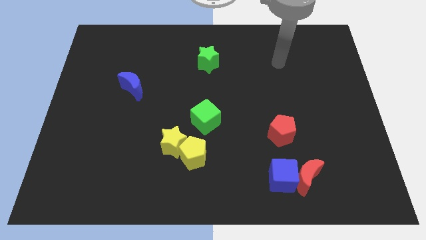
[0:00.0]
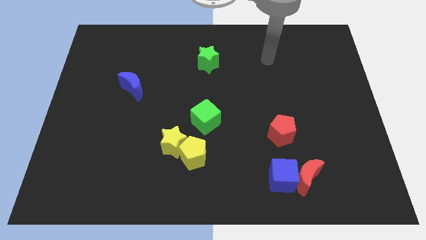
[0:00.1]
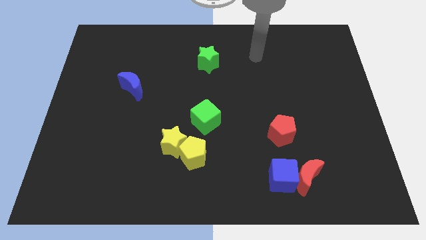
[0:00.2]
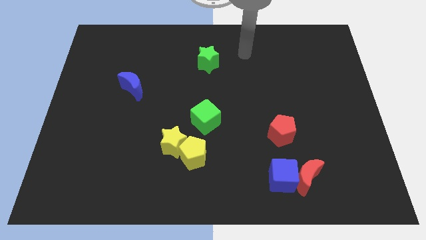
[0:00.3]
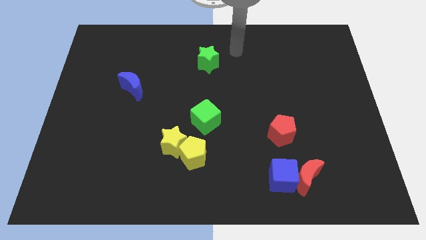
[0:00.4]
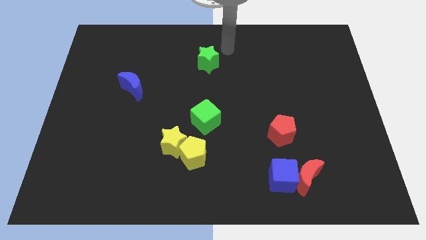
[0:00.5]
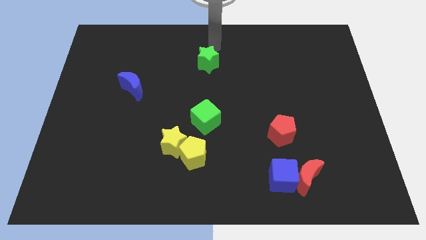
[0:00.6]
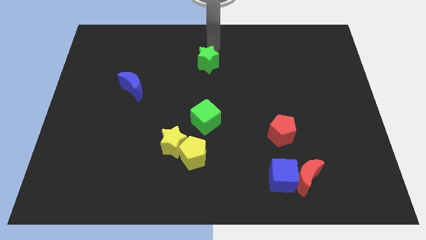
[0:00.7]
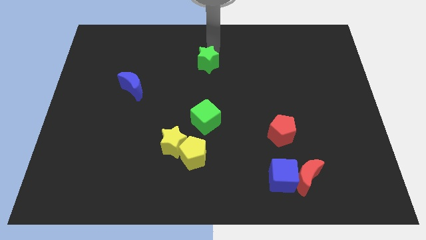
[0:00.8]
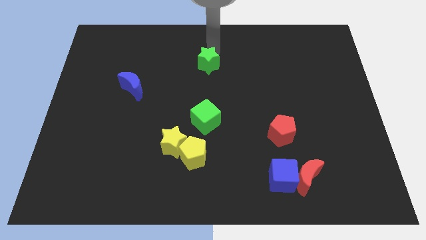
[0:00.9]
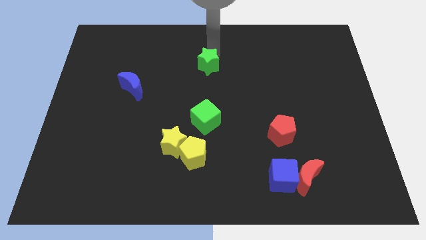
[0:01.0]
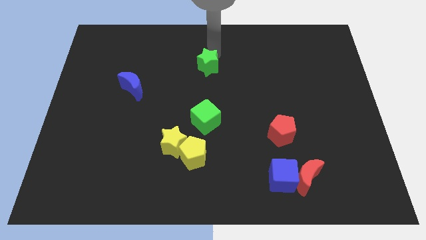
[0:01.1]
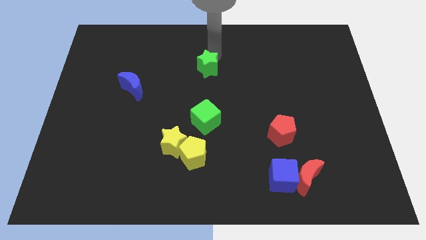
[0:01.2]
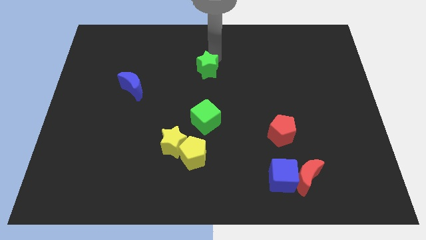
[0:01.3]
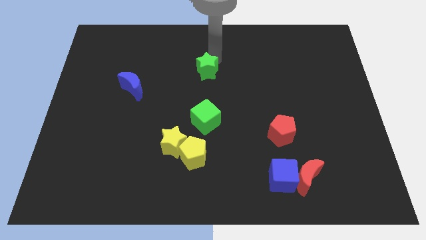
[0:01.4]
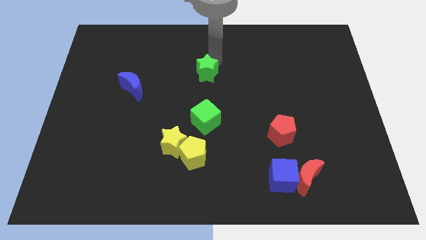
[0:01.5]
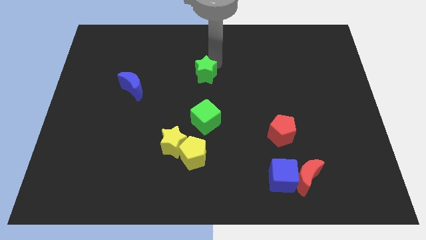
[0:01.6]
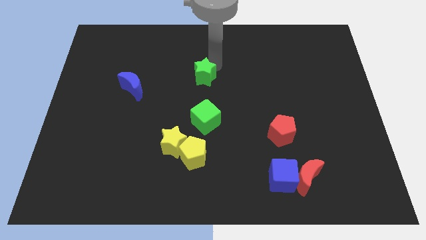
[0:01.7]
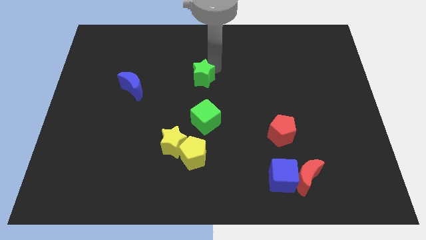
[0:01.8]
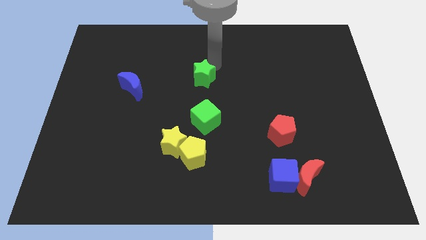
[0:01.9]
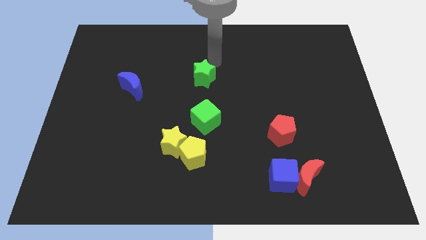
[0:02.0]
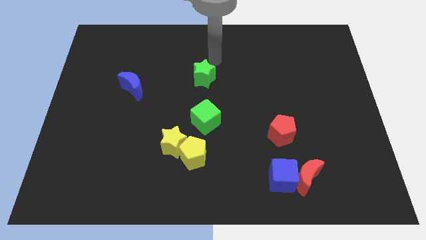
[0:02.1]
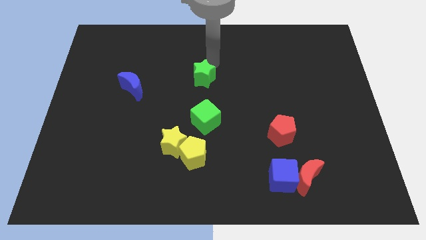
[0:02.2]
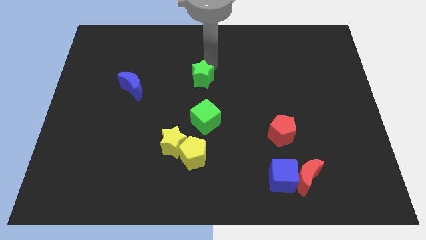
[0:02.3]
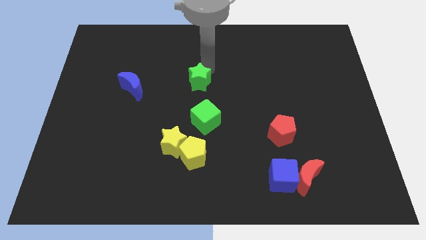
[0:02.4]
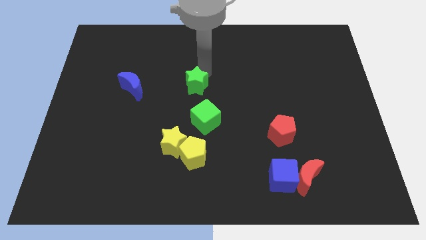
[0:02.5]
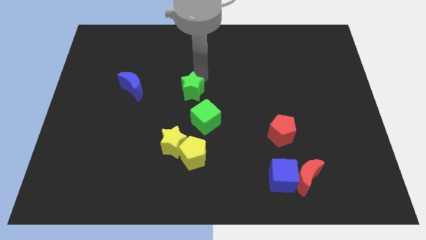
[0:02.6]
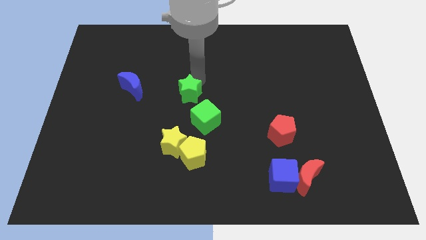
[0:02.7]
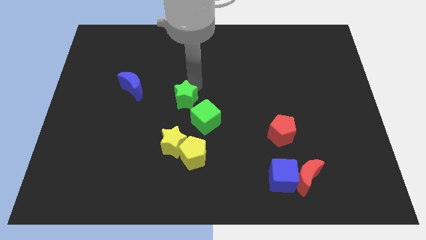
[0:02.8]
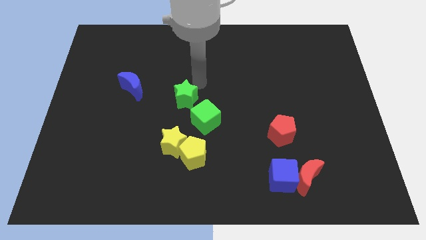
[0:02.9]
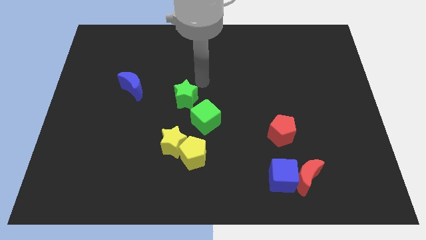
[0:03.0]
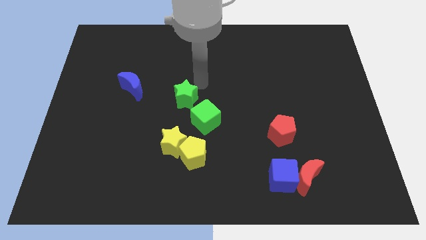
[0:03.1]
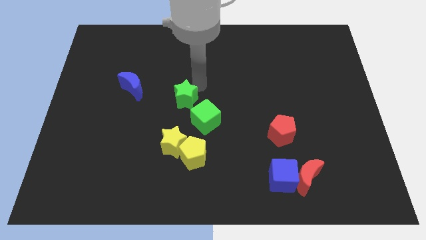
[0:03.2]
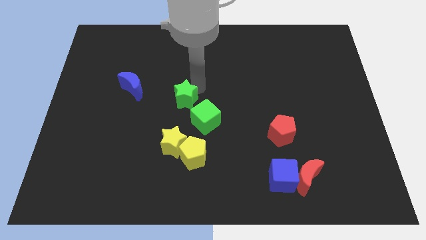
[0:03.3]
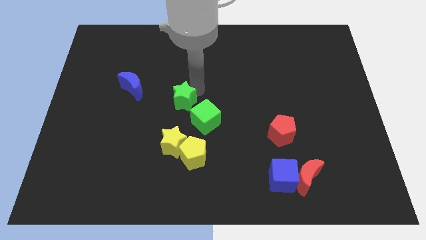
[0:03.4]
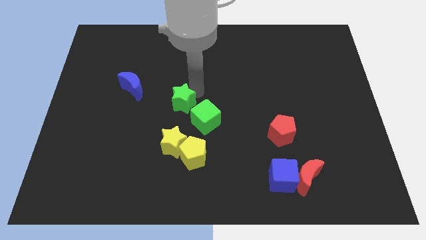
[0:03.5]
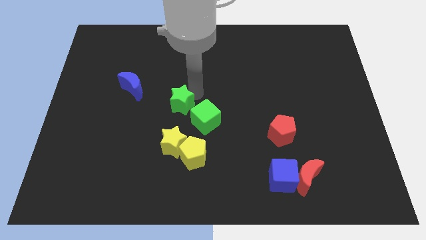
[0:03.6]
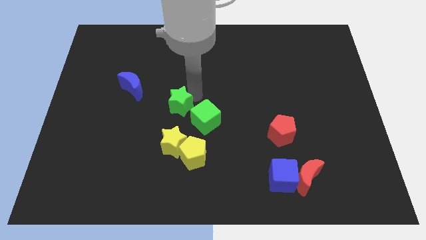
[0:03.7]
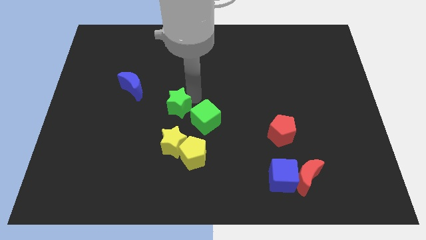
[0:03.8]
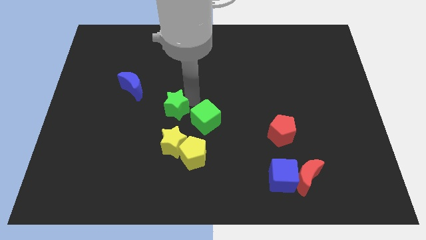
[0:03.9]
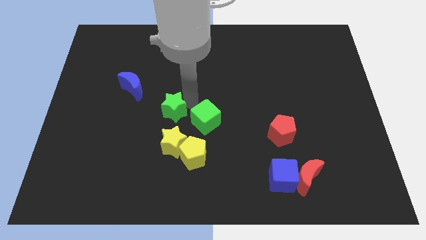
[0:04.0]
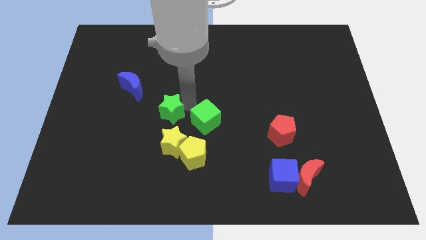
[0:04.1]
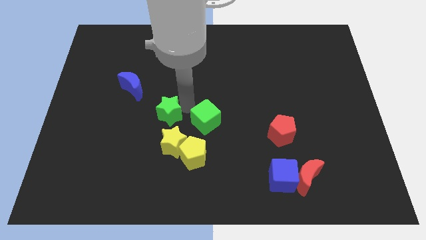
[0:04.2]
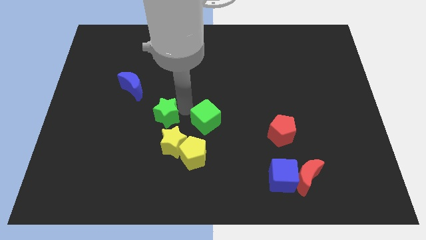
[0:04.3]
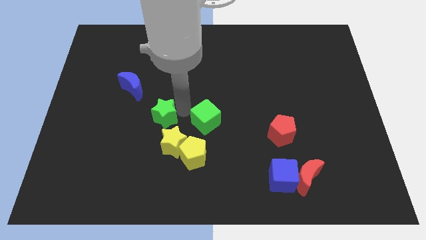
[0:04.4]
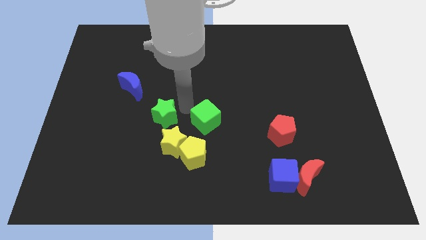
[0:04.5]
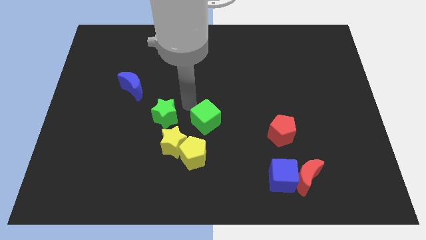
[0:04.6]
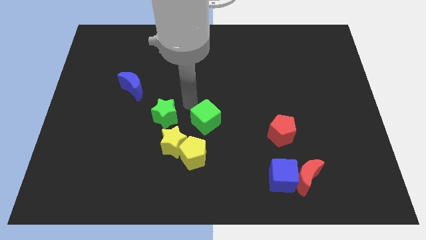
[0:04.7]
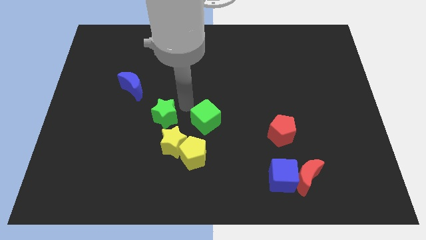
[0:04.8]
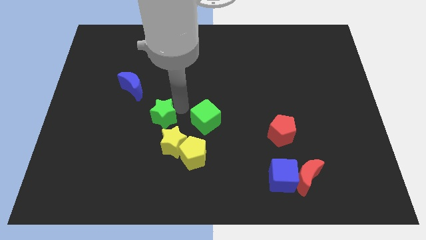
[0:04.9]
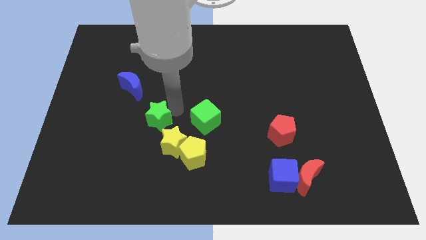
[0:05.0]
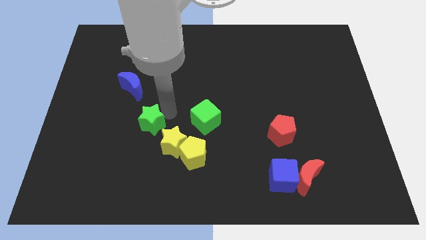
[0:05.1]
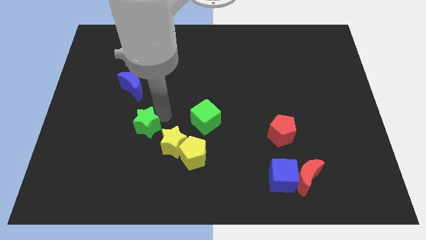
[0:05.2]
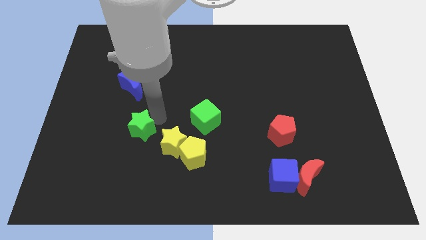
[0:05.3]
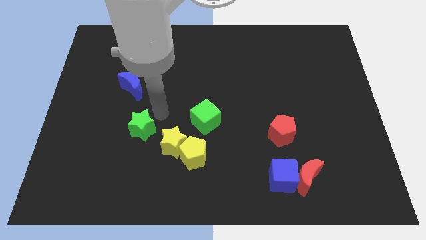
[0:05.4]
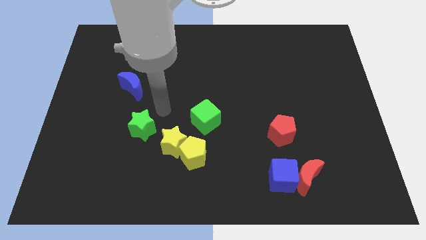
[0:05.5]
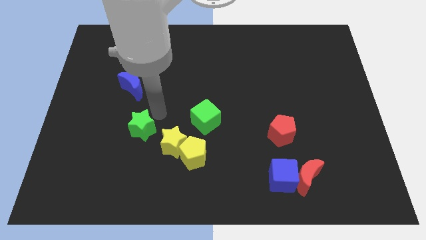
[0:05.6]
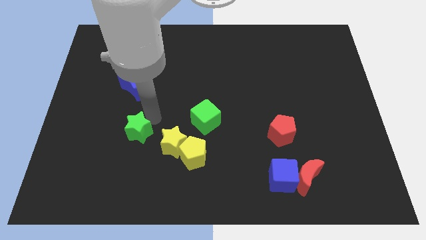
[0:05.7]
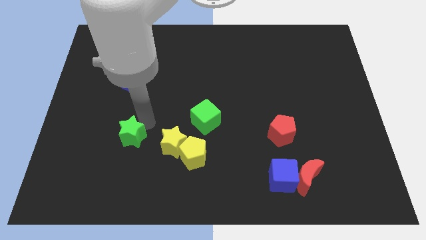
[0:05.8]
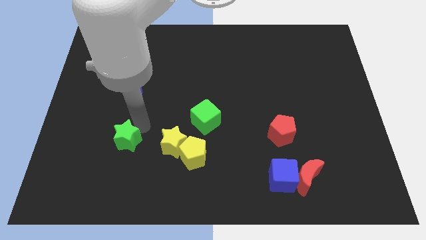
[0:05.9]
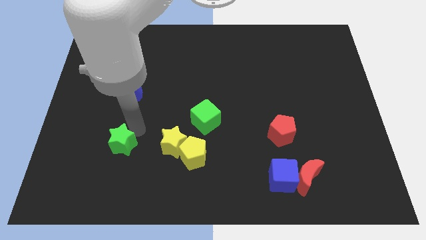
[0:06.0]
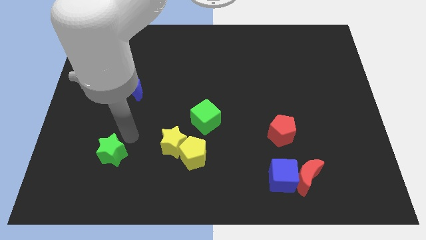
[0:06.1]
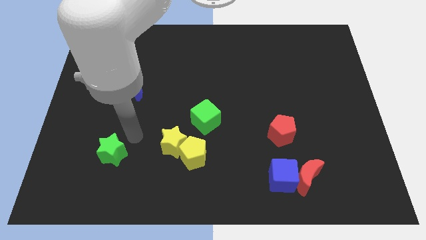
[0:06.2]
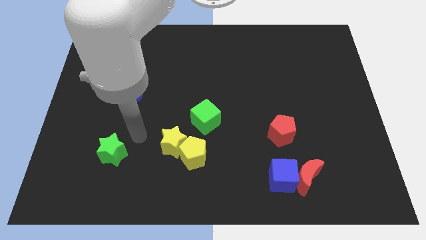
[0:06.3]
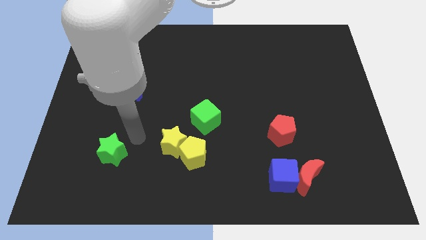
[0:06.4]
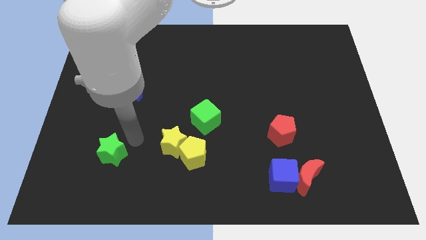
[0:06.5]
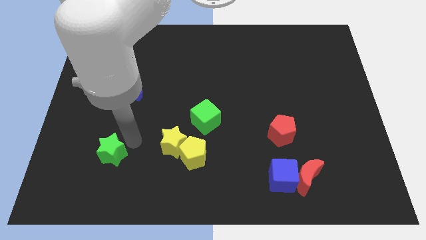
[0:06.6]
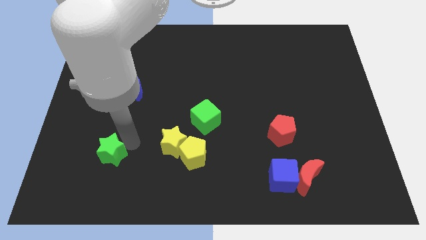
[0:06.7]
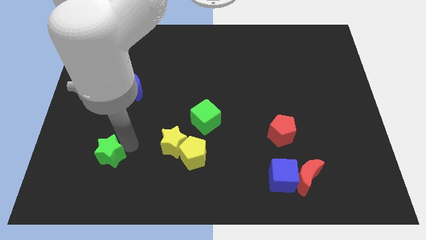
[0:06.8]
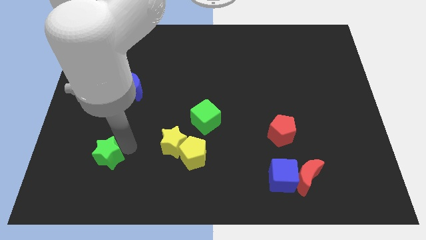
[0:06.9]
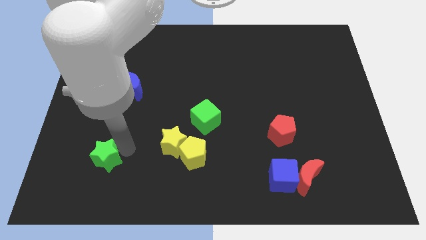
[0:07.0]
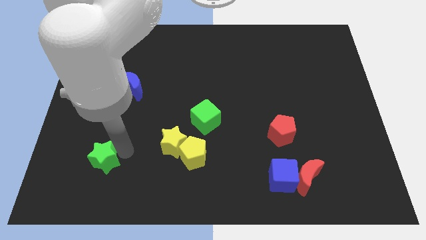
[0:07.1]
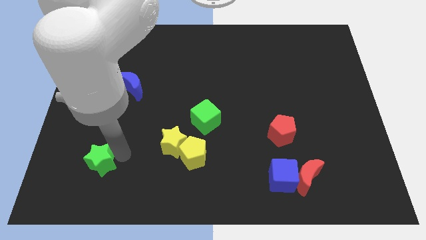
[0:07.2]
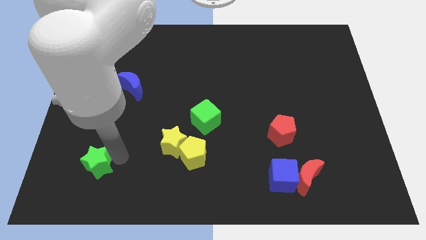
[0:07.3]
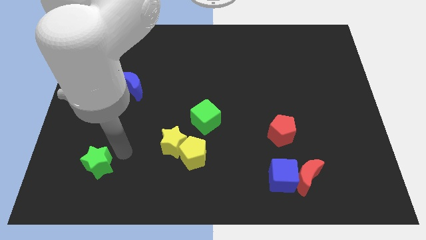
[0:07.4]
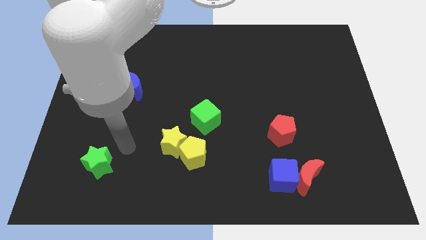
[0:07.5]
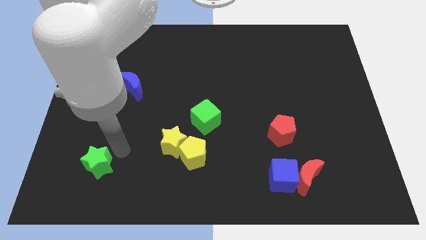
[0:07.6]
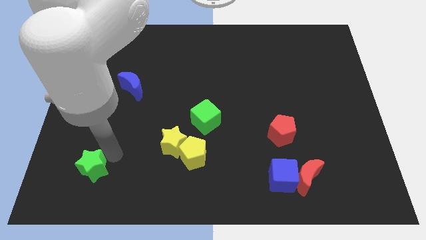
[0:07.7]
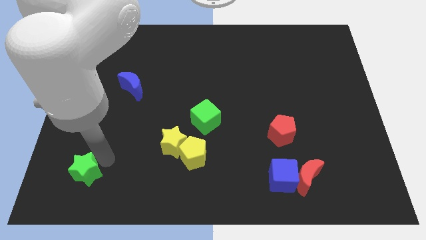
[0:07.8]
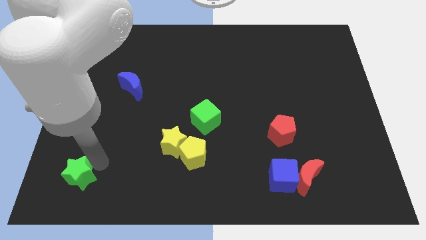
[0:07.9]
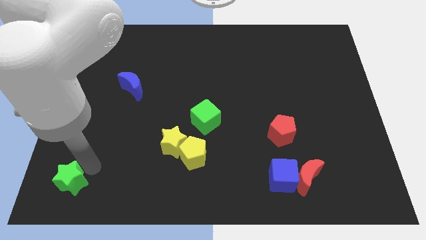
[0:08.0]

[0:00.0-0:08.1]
move the green star to the lower left corner
